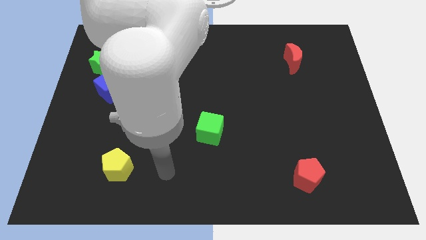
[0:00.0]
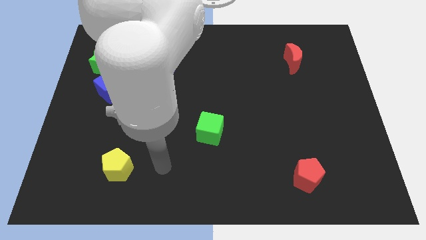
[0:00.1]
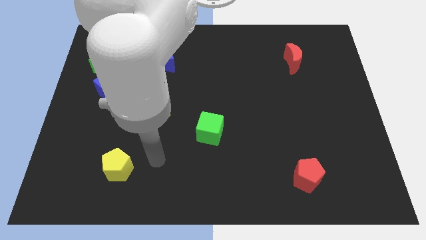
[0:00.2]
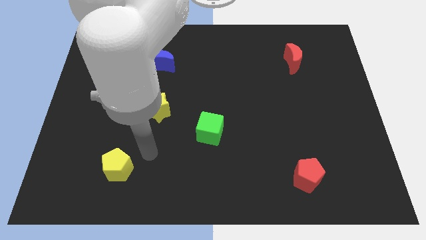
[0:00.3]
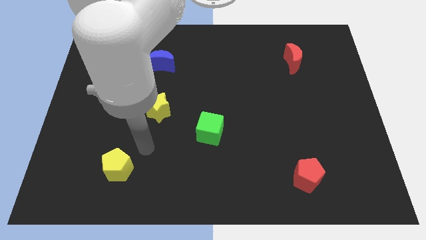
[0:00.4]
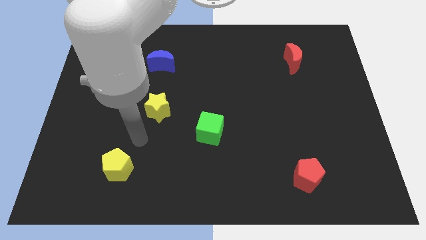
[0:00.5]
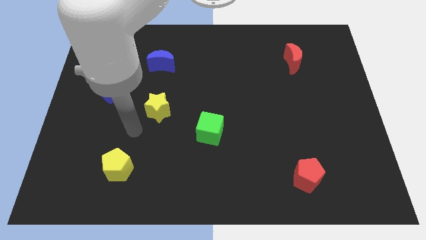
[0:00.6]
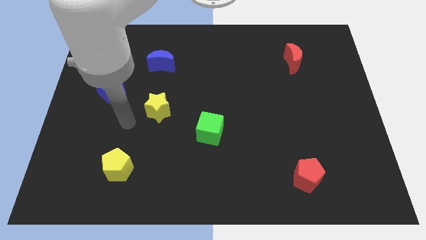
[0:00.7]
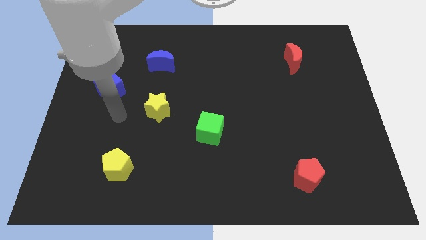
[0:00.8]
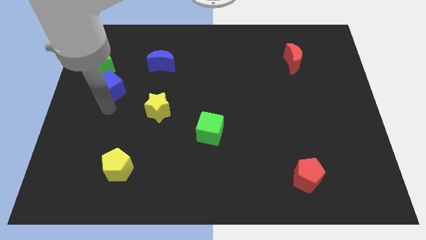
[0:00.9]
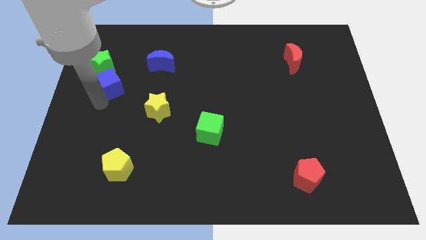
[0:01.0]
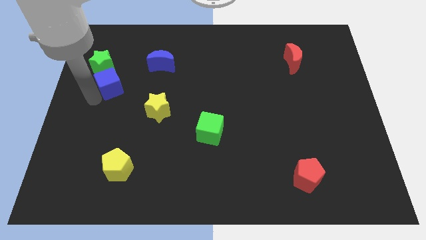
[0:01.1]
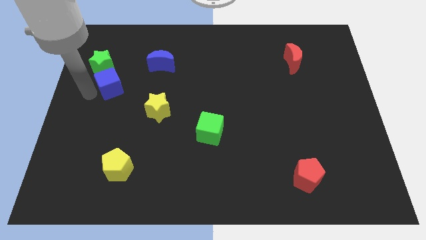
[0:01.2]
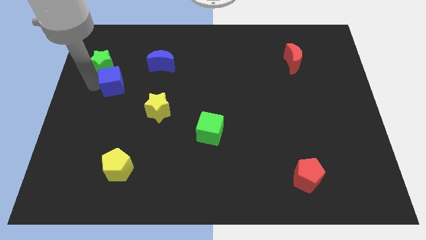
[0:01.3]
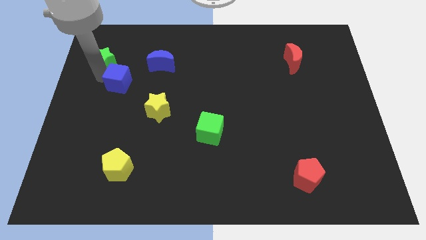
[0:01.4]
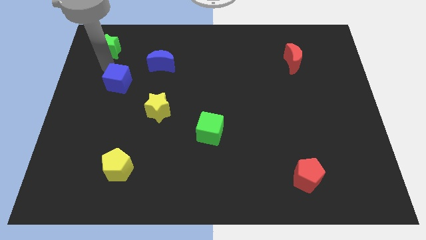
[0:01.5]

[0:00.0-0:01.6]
move the blue cube away from the green star

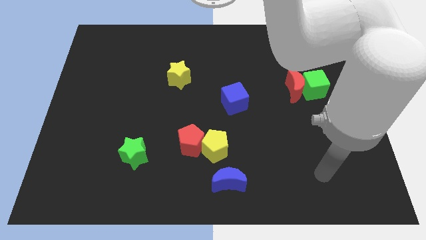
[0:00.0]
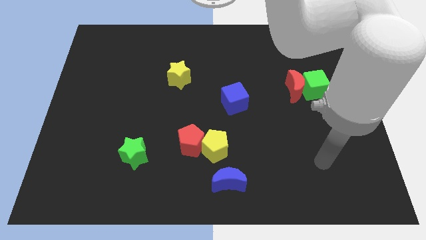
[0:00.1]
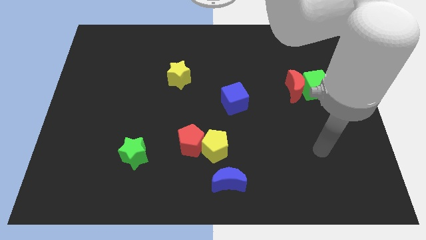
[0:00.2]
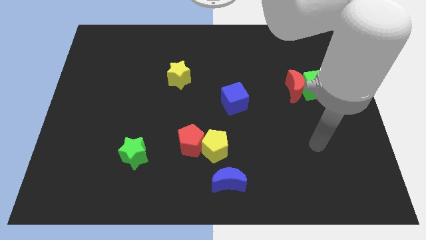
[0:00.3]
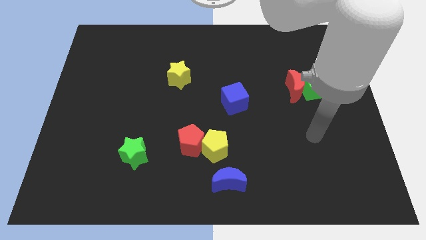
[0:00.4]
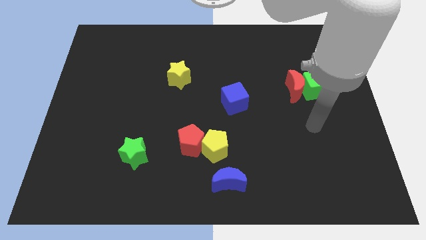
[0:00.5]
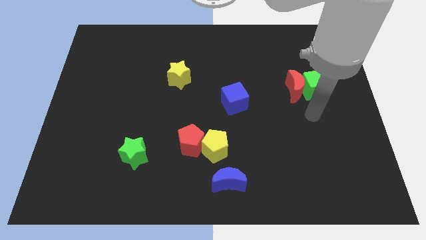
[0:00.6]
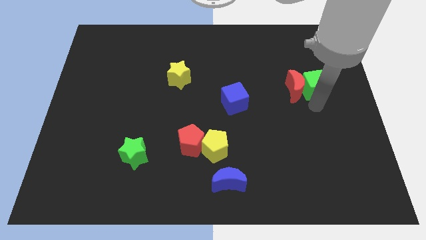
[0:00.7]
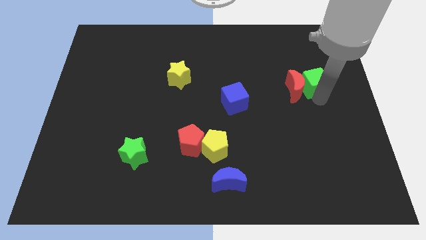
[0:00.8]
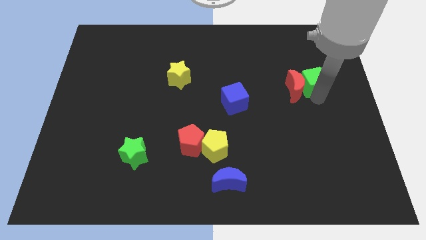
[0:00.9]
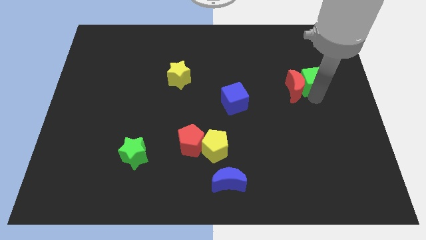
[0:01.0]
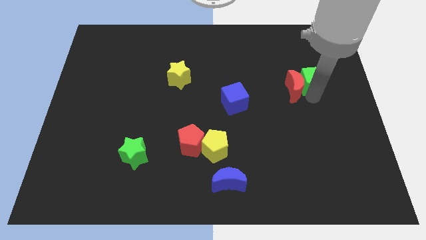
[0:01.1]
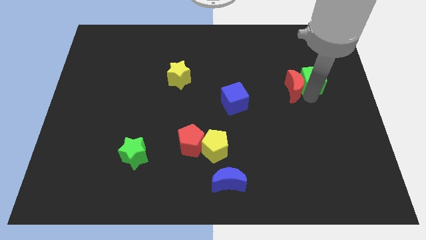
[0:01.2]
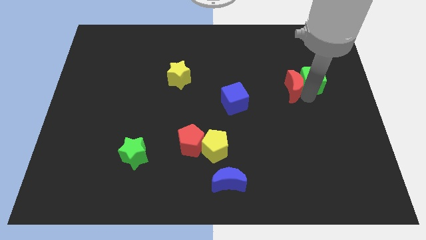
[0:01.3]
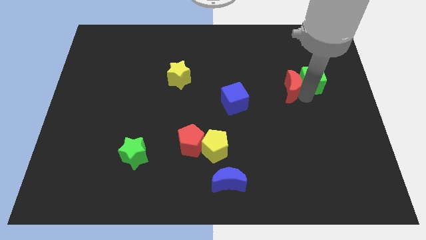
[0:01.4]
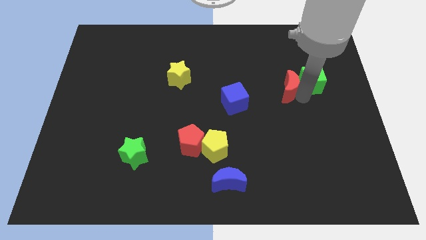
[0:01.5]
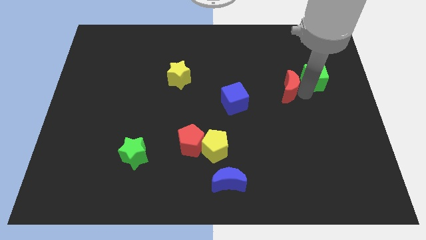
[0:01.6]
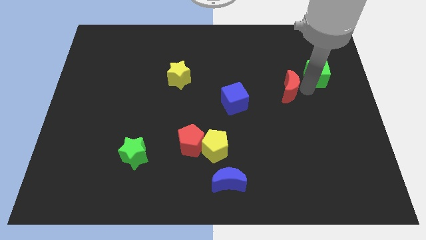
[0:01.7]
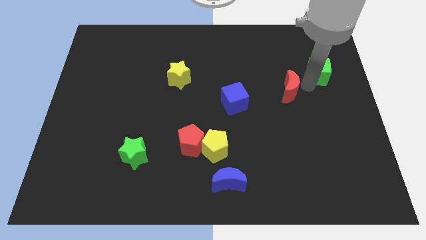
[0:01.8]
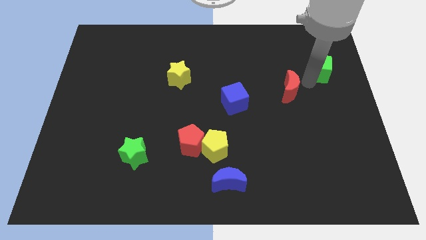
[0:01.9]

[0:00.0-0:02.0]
move the red moon away from the green cube

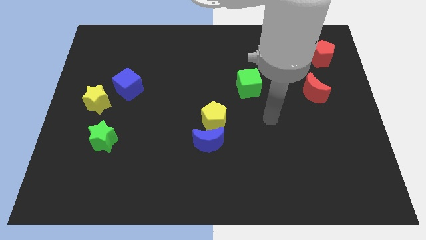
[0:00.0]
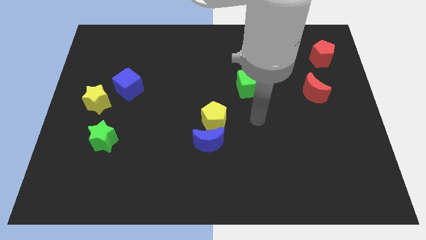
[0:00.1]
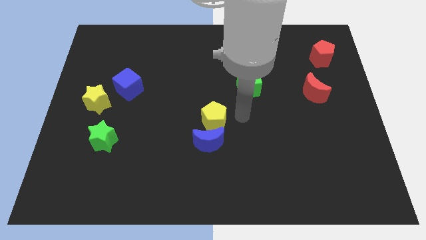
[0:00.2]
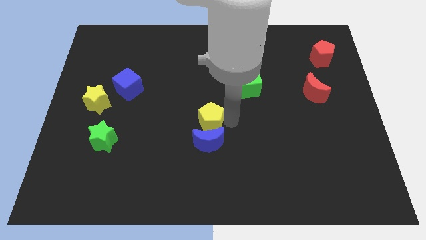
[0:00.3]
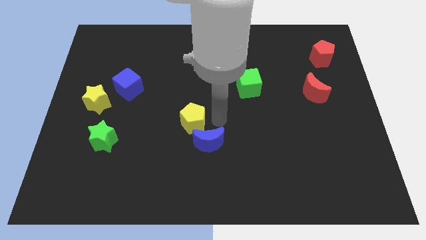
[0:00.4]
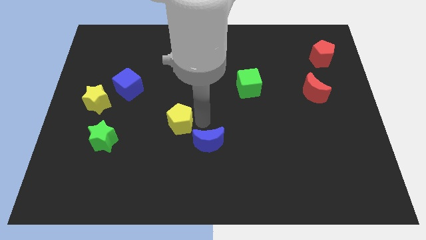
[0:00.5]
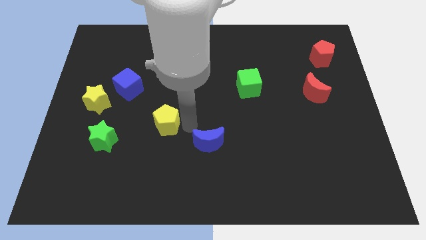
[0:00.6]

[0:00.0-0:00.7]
pull the blue moon apart from the yellow pentagon

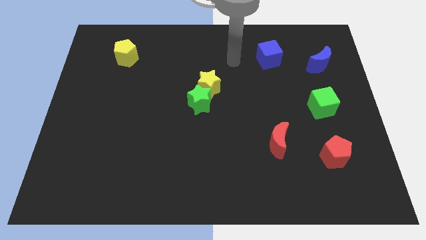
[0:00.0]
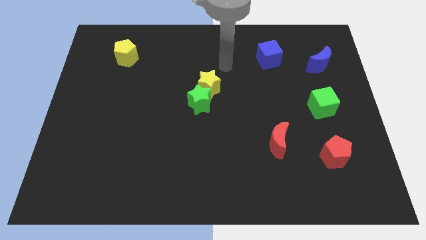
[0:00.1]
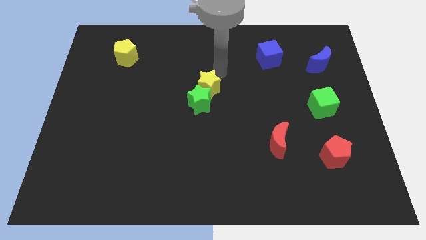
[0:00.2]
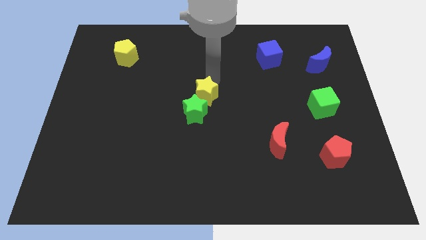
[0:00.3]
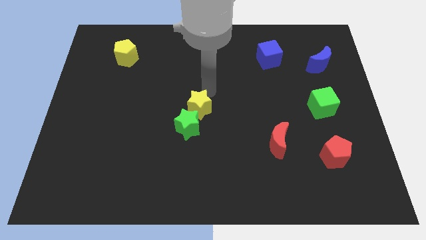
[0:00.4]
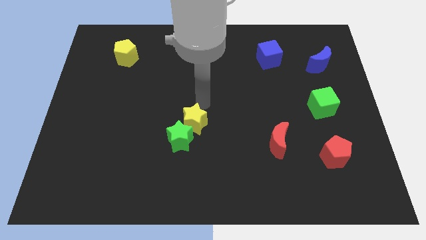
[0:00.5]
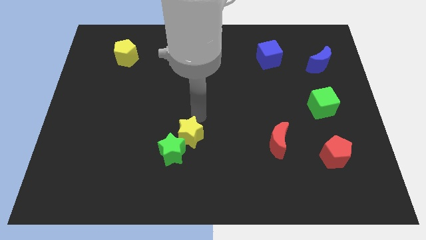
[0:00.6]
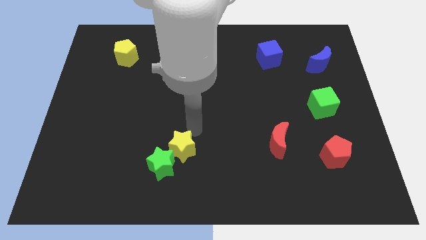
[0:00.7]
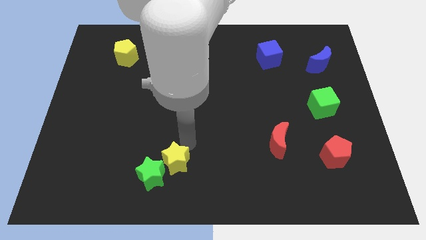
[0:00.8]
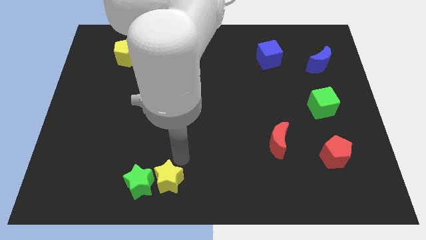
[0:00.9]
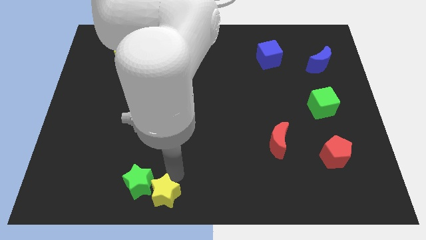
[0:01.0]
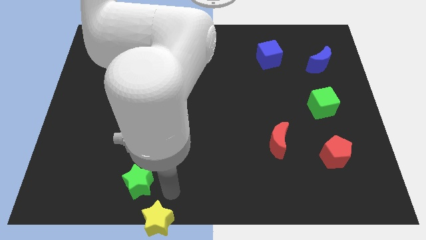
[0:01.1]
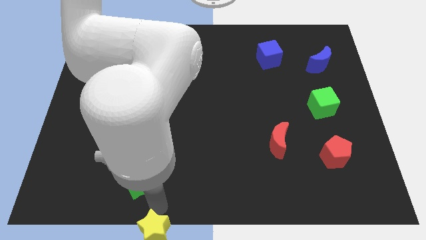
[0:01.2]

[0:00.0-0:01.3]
pull the green star apart from the yellow star

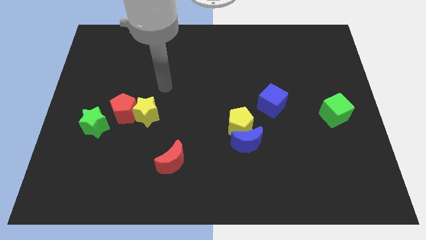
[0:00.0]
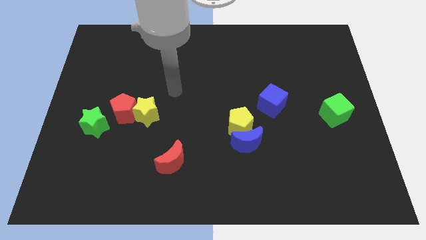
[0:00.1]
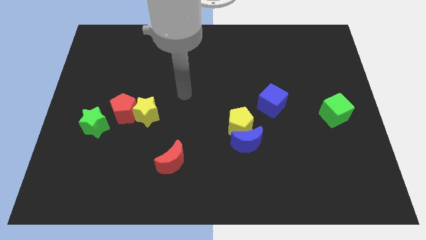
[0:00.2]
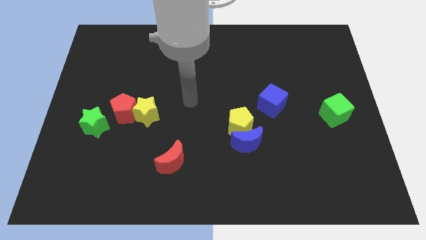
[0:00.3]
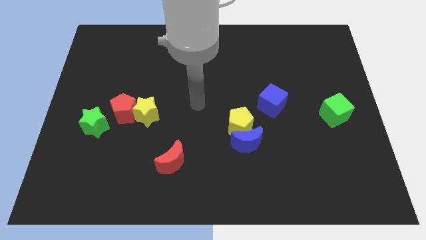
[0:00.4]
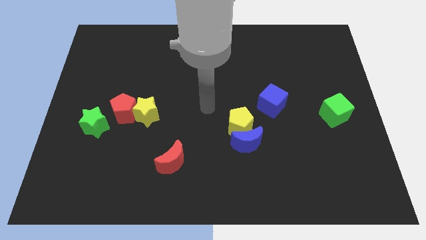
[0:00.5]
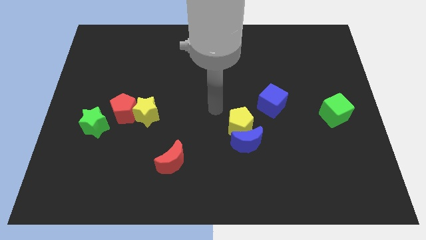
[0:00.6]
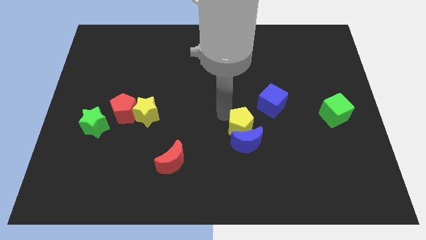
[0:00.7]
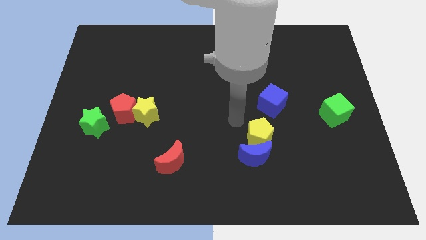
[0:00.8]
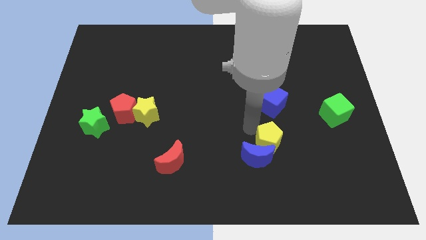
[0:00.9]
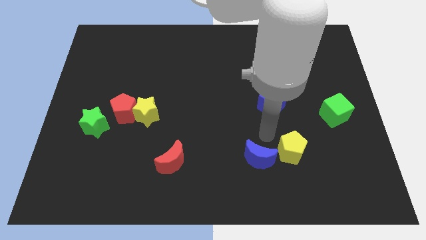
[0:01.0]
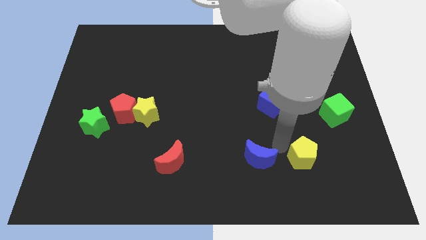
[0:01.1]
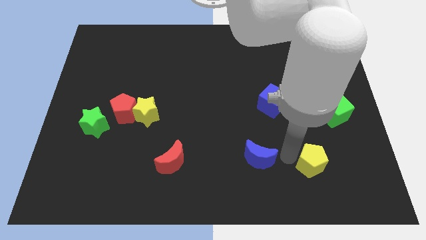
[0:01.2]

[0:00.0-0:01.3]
move the blue moon away from the yellow pentagon

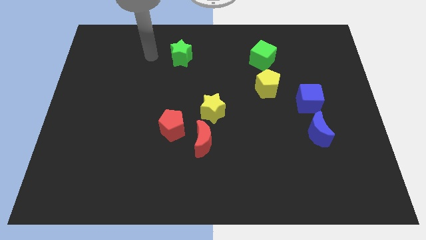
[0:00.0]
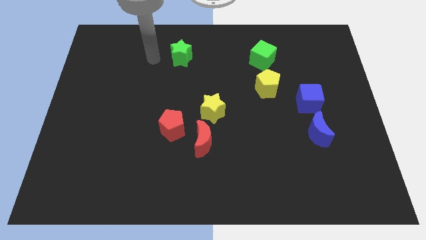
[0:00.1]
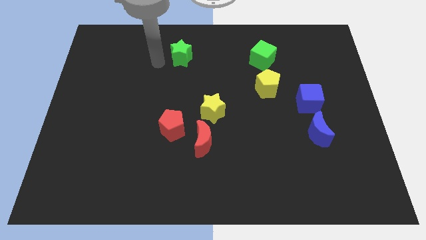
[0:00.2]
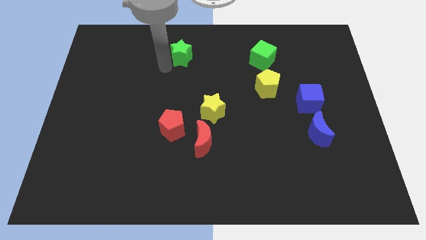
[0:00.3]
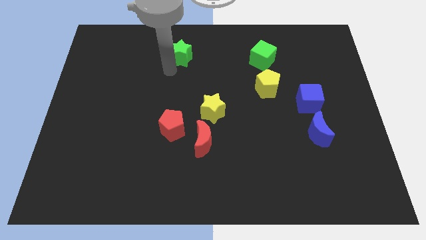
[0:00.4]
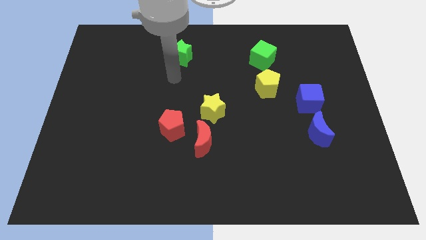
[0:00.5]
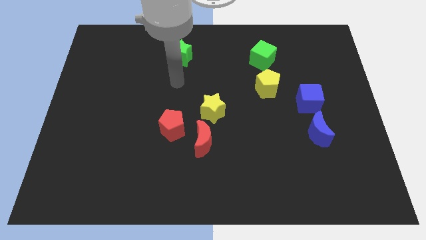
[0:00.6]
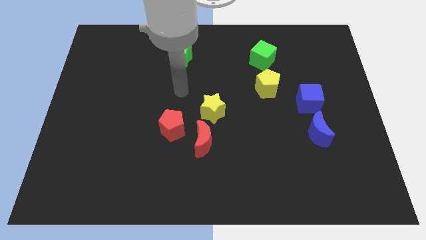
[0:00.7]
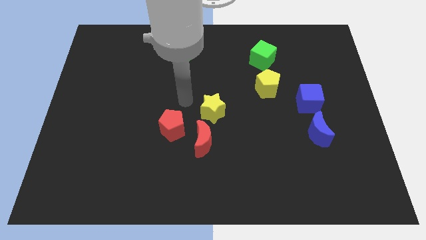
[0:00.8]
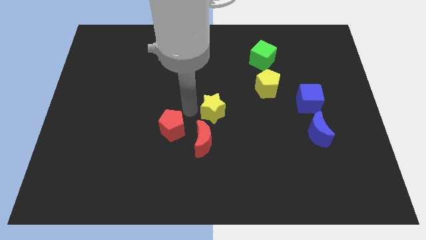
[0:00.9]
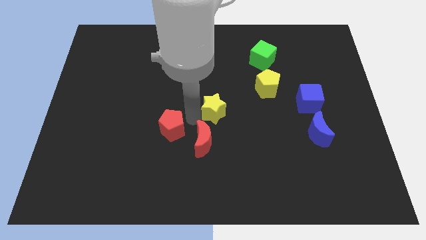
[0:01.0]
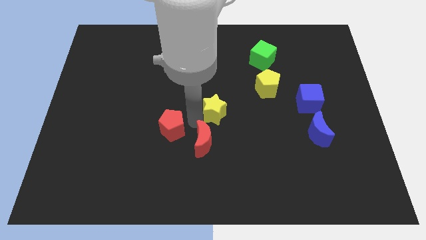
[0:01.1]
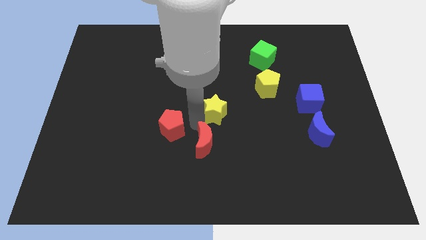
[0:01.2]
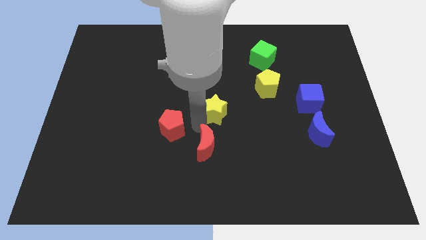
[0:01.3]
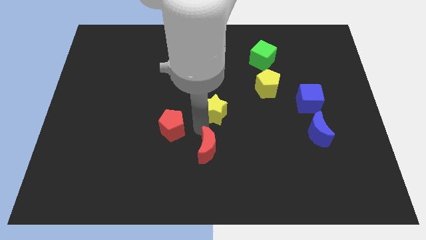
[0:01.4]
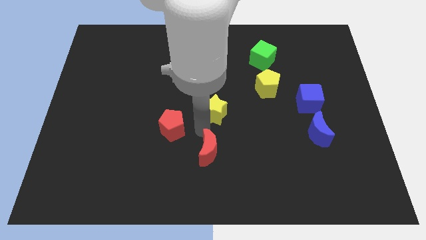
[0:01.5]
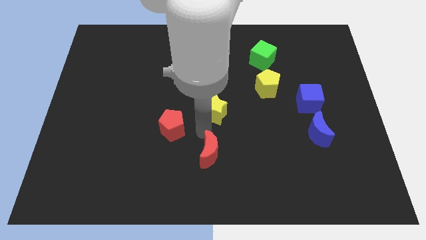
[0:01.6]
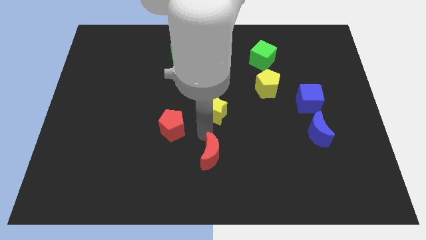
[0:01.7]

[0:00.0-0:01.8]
move the red moon away from the red pentagon and yellow star

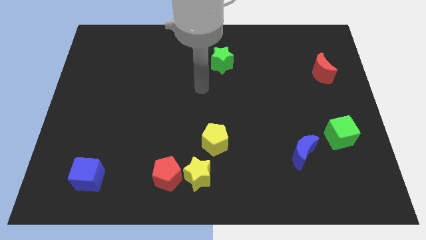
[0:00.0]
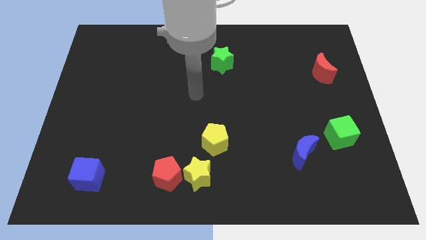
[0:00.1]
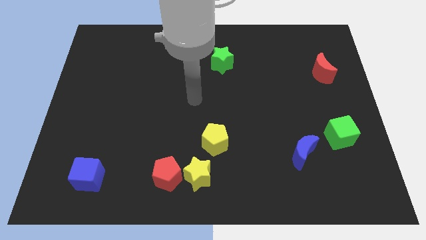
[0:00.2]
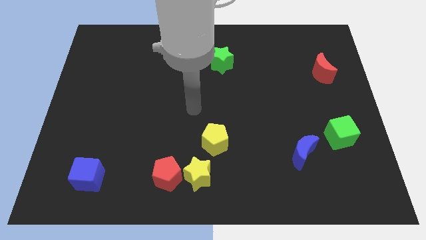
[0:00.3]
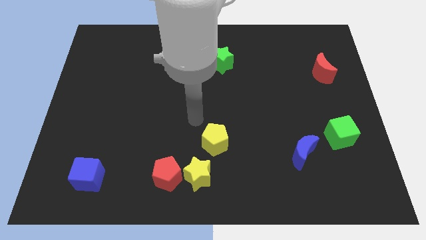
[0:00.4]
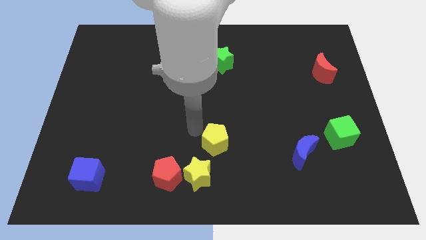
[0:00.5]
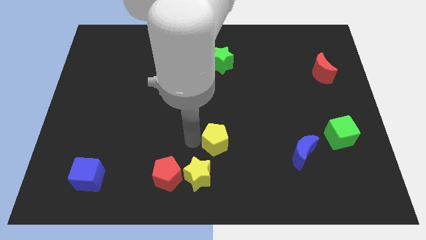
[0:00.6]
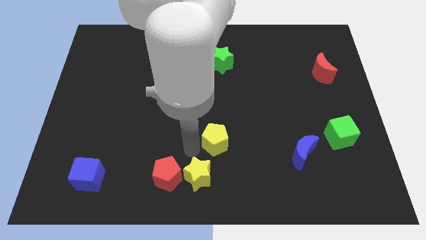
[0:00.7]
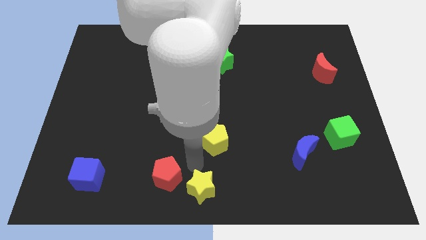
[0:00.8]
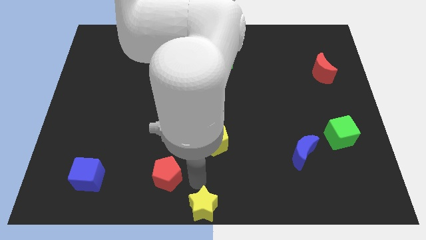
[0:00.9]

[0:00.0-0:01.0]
move the red pentagon away from the yellow star
